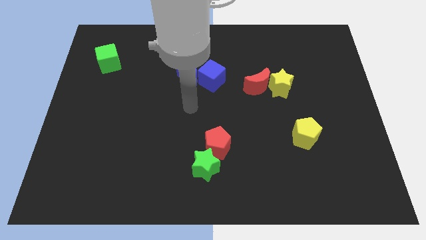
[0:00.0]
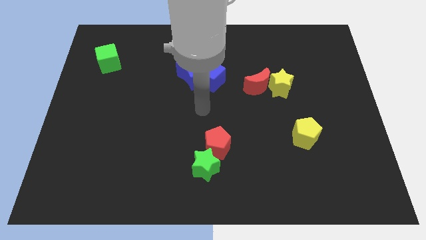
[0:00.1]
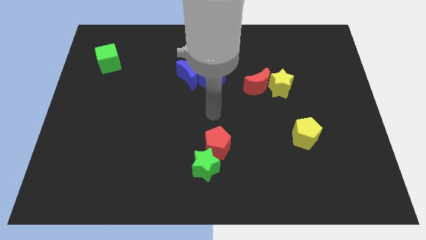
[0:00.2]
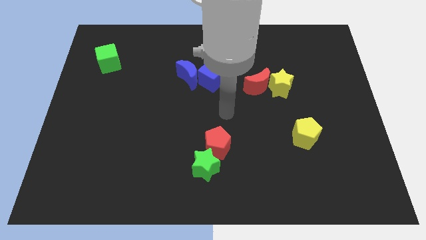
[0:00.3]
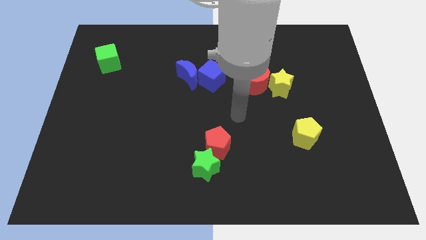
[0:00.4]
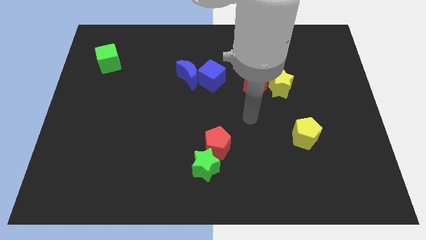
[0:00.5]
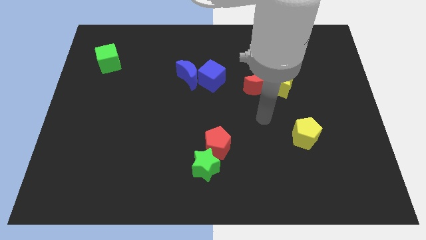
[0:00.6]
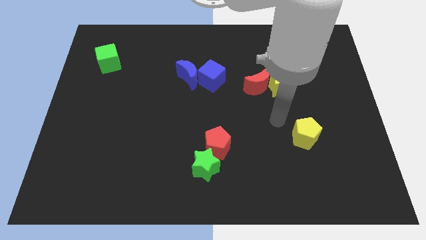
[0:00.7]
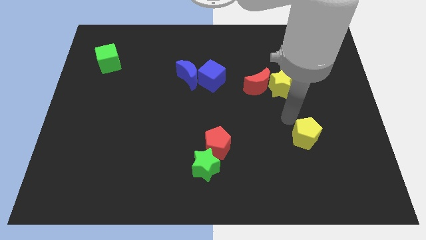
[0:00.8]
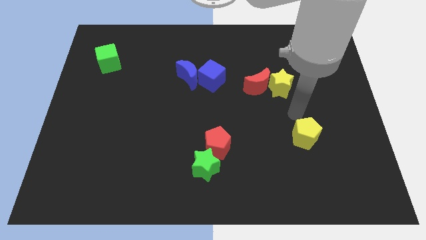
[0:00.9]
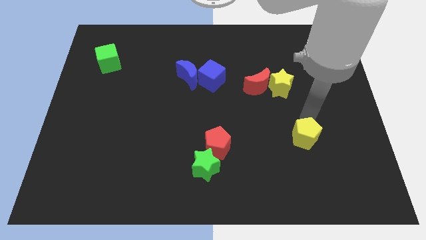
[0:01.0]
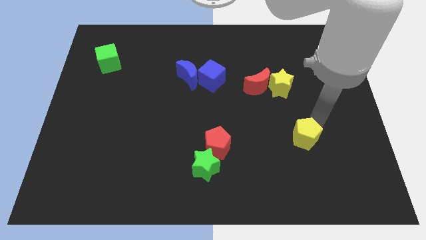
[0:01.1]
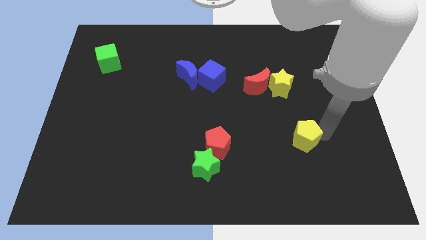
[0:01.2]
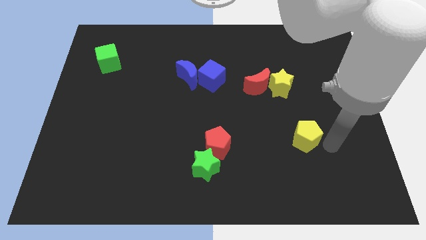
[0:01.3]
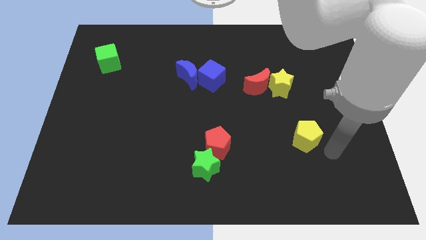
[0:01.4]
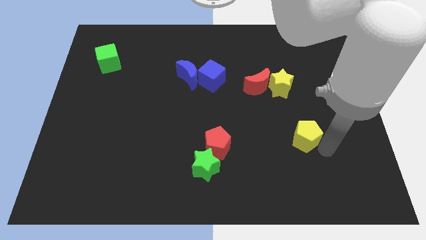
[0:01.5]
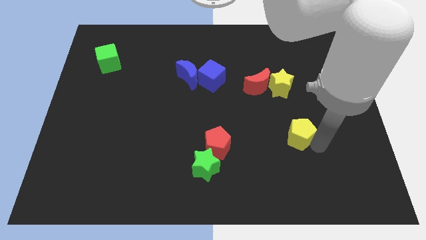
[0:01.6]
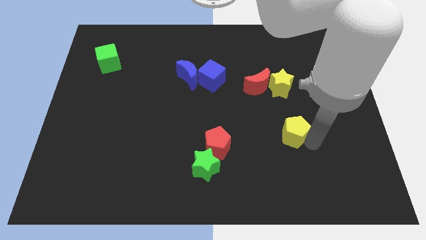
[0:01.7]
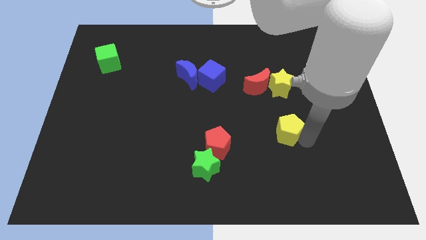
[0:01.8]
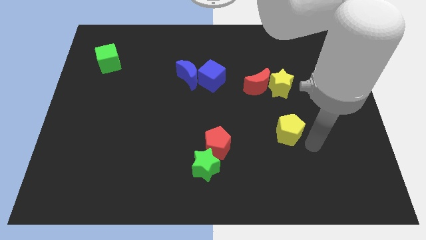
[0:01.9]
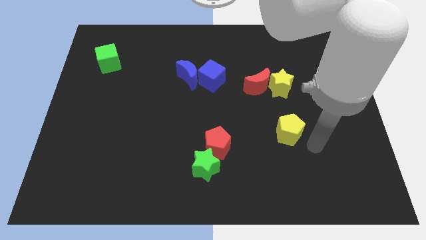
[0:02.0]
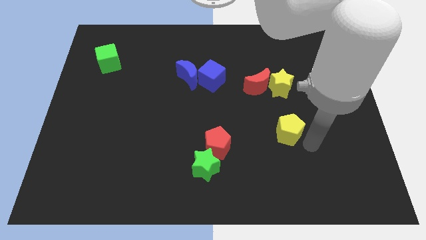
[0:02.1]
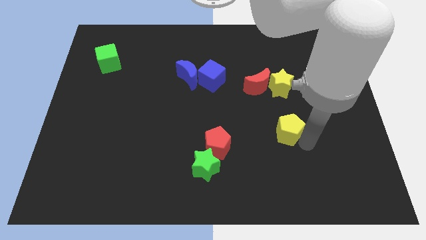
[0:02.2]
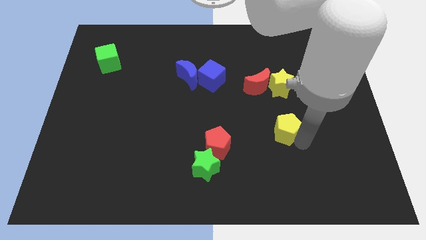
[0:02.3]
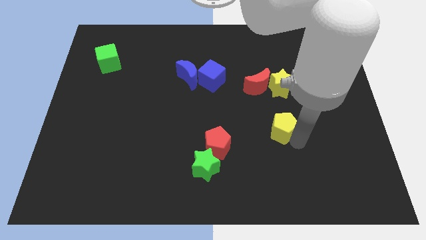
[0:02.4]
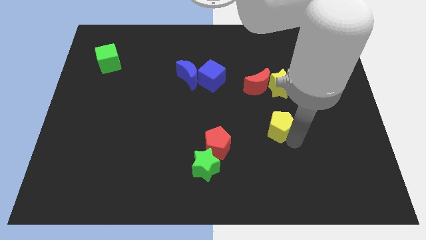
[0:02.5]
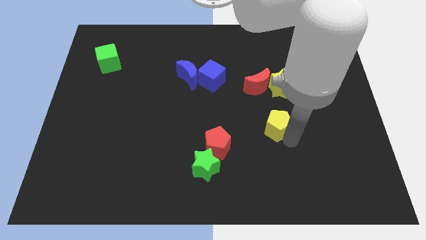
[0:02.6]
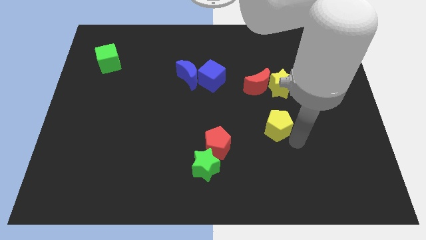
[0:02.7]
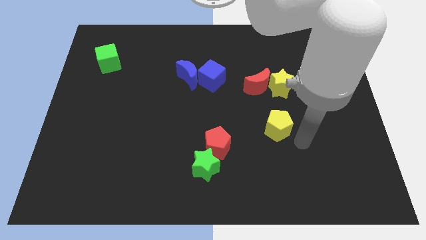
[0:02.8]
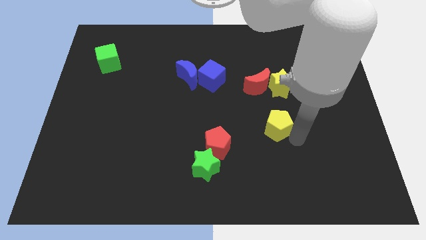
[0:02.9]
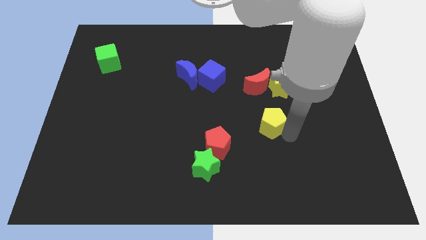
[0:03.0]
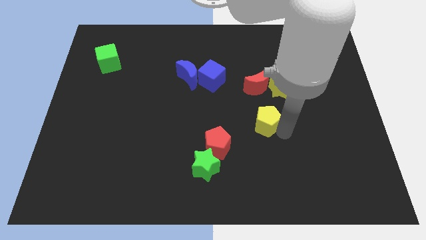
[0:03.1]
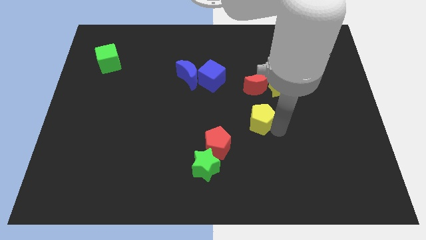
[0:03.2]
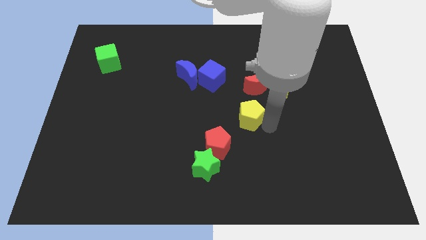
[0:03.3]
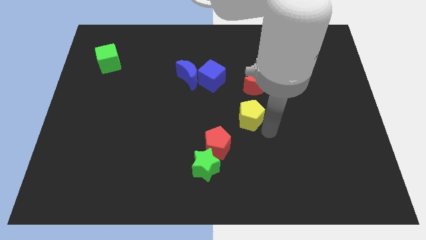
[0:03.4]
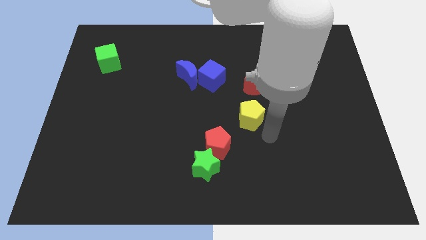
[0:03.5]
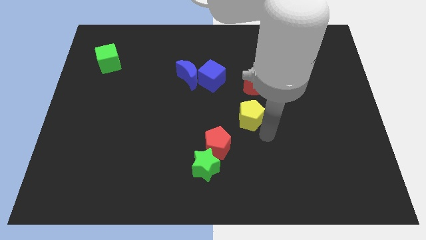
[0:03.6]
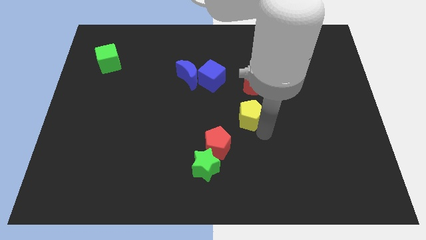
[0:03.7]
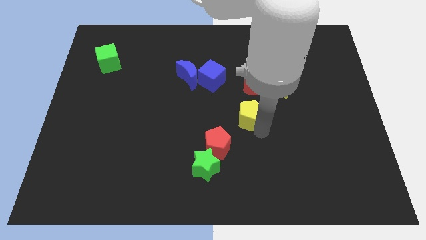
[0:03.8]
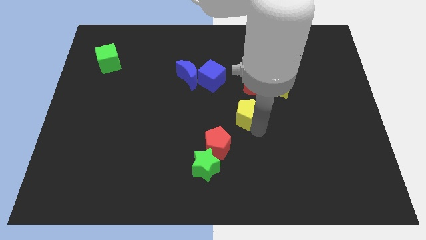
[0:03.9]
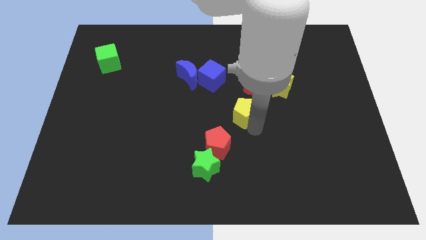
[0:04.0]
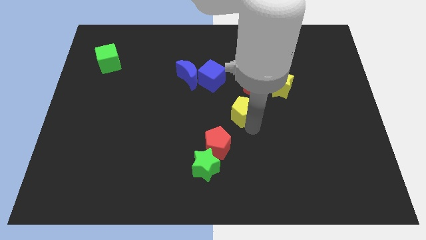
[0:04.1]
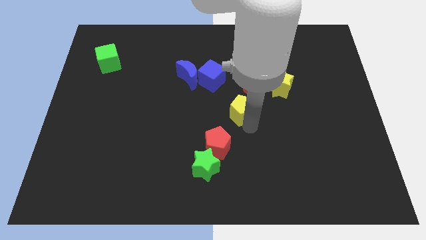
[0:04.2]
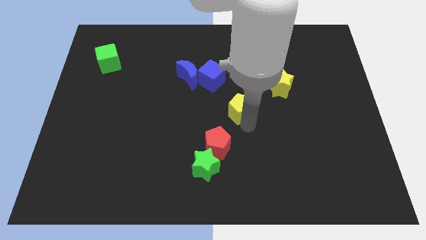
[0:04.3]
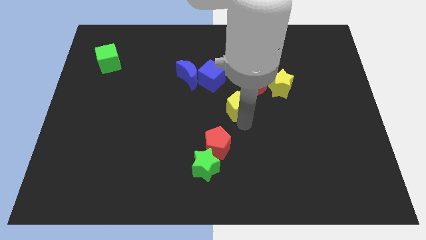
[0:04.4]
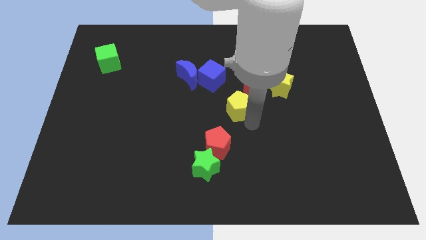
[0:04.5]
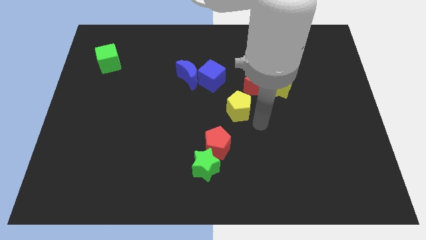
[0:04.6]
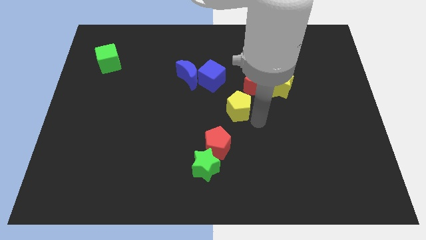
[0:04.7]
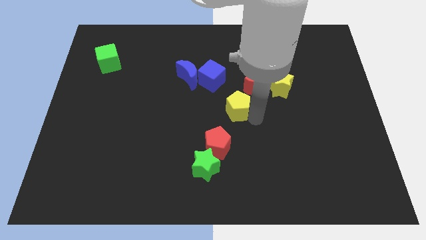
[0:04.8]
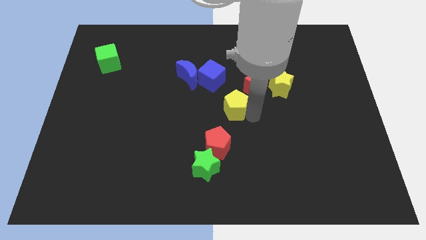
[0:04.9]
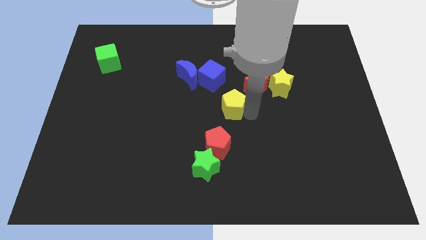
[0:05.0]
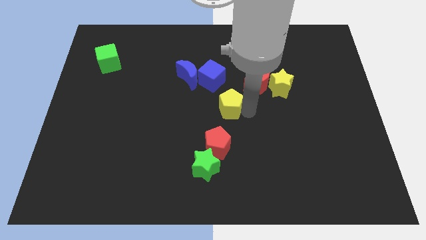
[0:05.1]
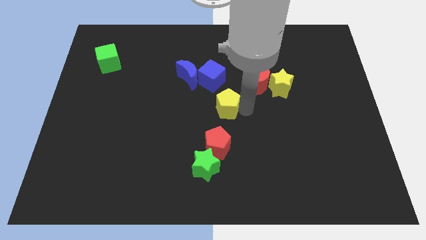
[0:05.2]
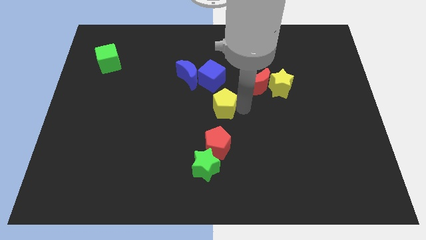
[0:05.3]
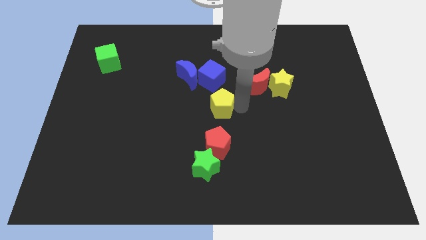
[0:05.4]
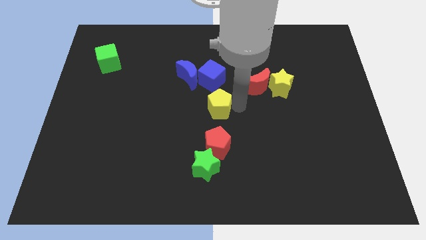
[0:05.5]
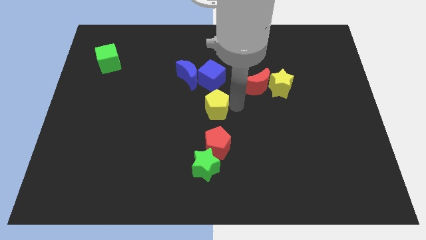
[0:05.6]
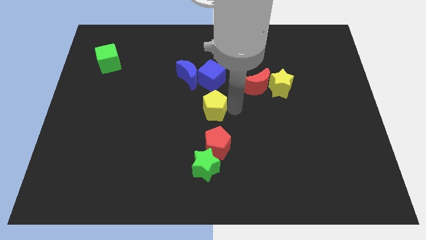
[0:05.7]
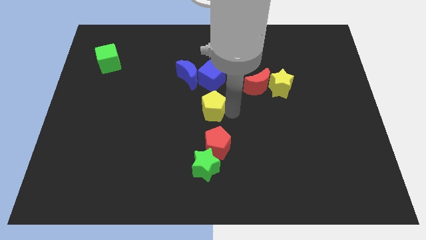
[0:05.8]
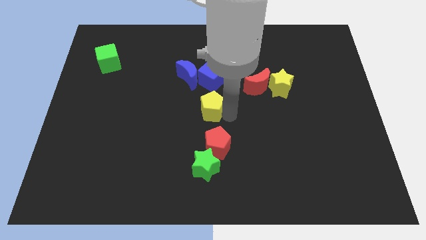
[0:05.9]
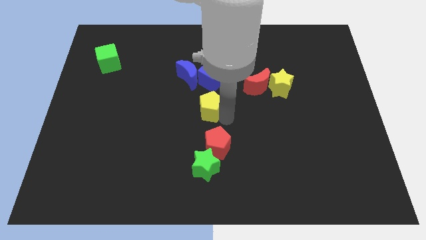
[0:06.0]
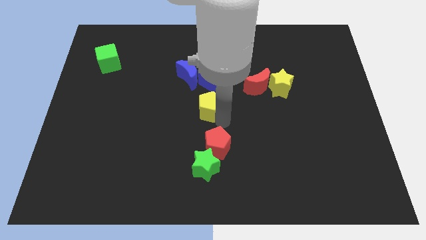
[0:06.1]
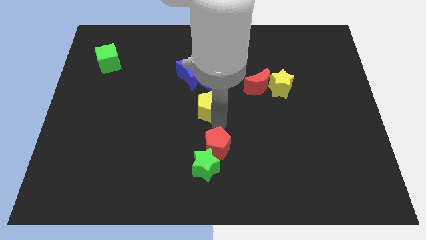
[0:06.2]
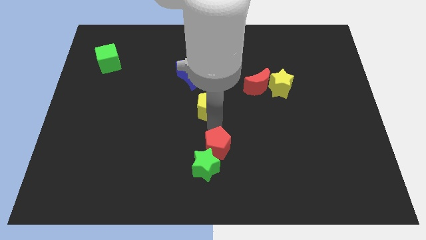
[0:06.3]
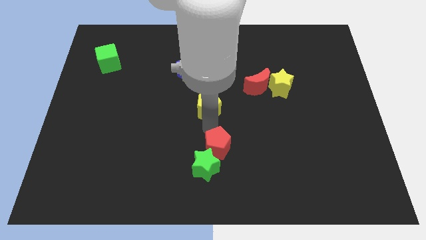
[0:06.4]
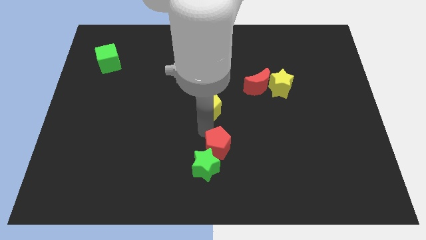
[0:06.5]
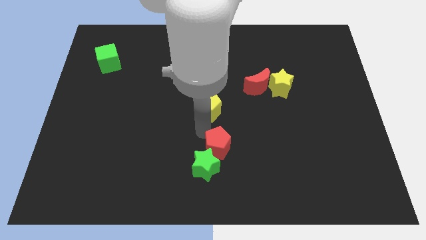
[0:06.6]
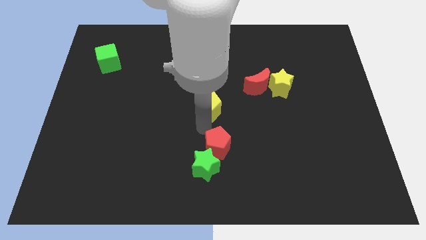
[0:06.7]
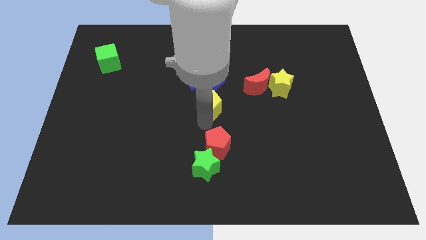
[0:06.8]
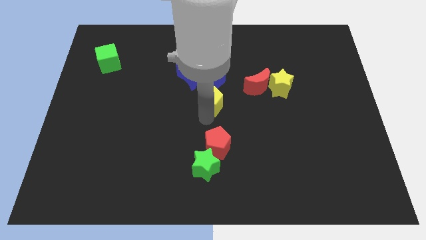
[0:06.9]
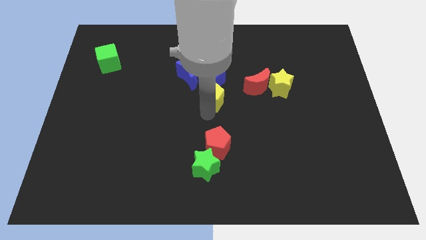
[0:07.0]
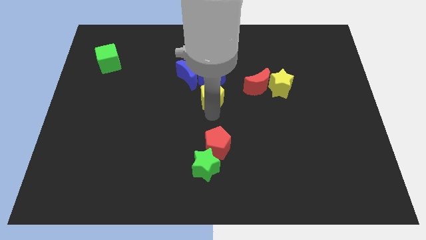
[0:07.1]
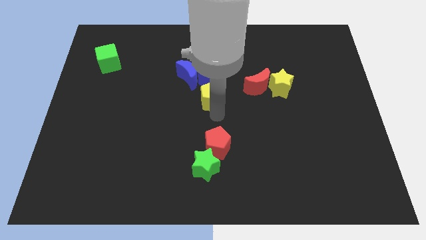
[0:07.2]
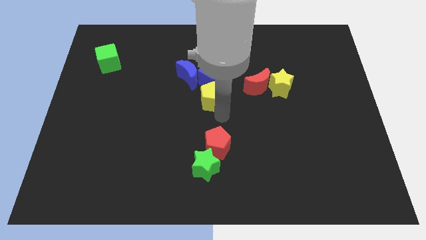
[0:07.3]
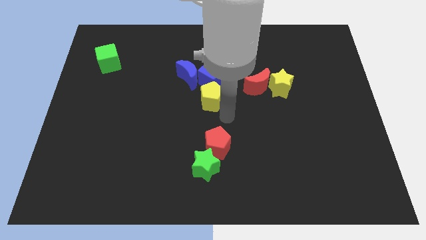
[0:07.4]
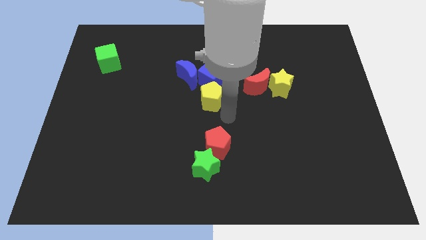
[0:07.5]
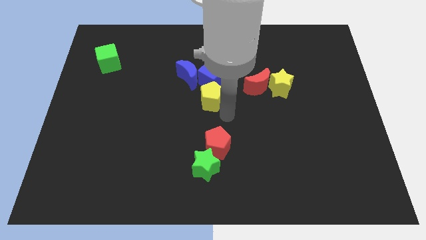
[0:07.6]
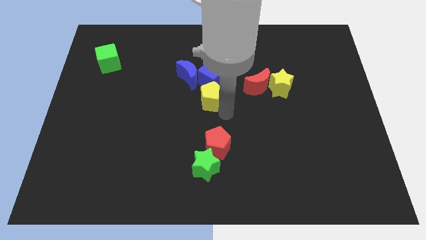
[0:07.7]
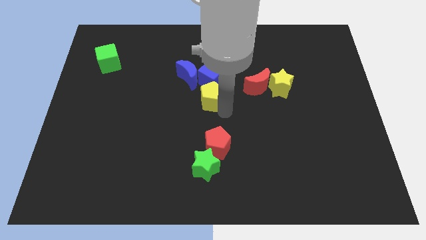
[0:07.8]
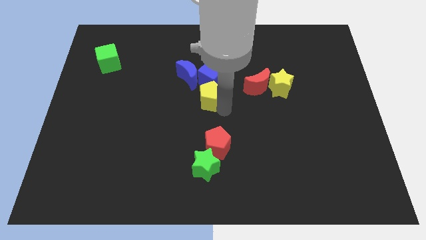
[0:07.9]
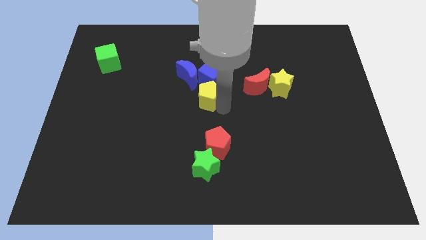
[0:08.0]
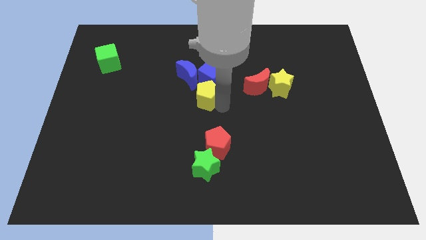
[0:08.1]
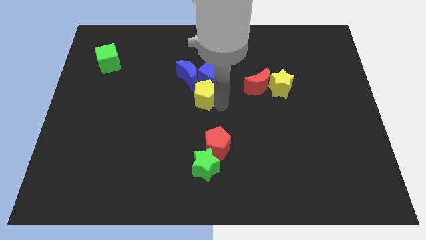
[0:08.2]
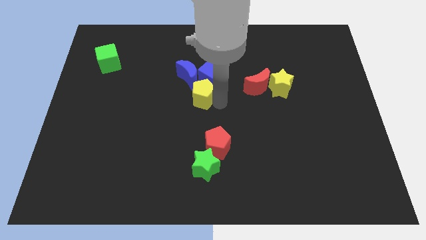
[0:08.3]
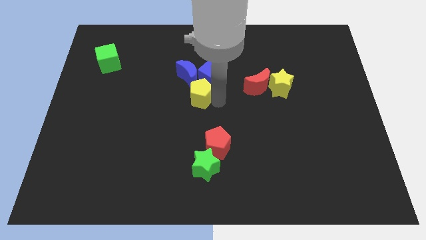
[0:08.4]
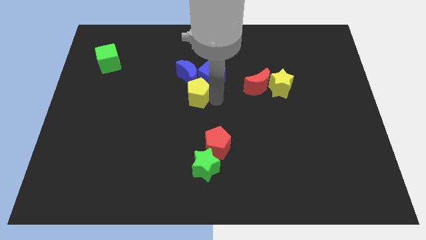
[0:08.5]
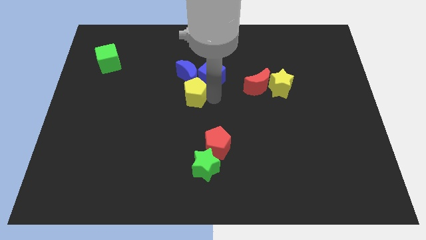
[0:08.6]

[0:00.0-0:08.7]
move the yellow pentagon next to the blue moon
